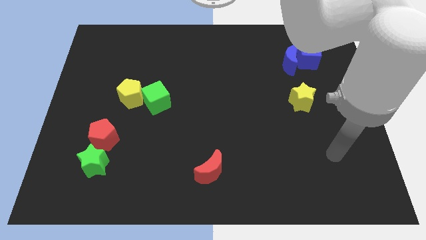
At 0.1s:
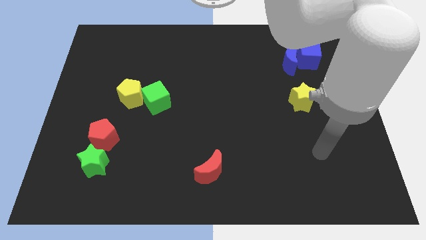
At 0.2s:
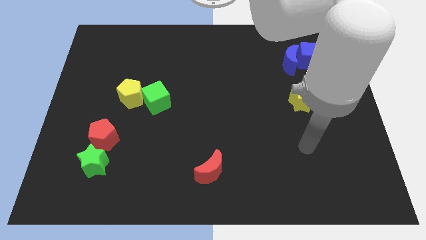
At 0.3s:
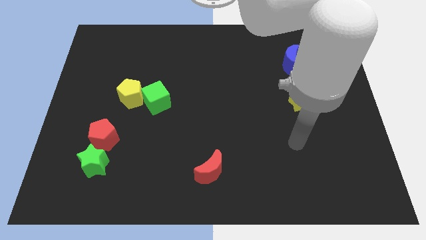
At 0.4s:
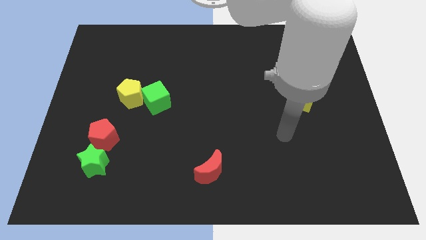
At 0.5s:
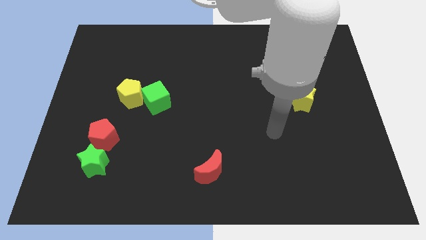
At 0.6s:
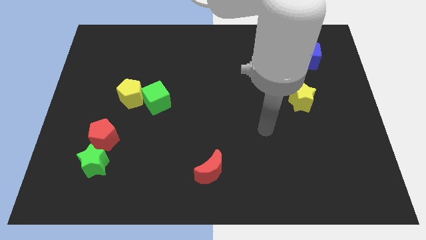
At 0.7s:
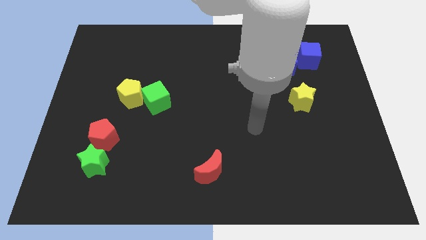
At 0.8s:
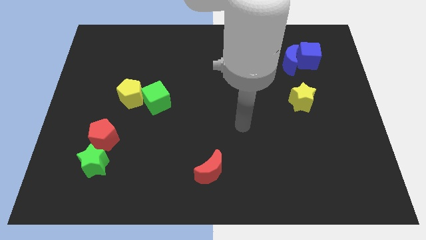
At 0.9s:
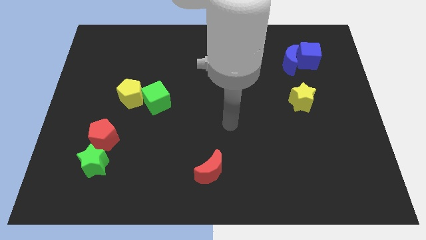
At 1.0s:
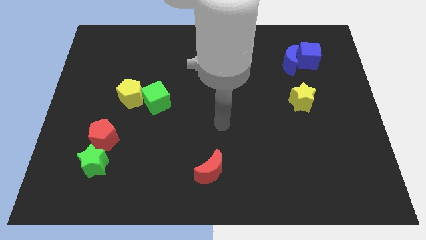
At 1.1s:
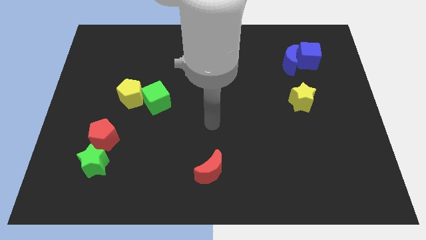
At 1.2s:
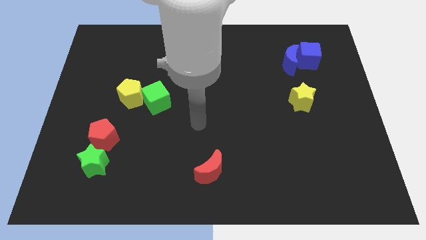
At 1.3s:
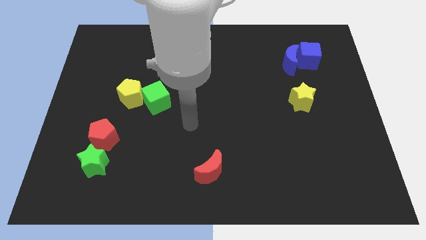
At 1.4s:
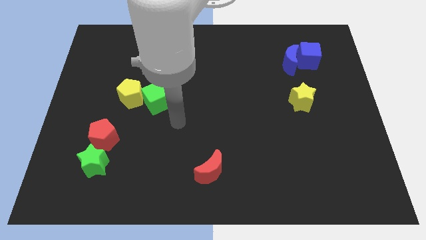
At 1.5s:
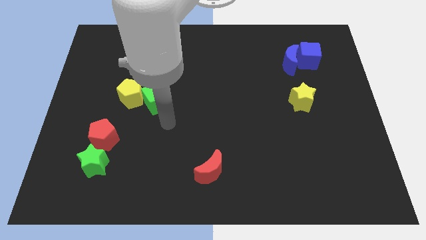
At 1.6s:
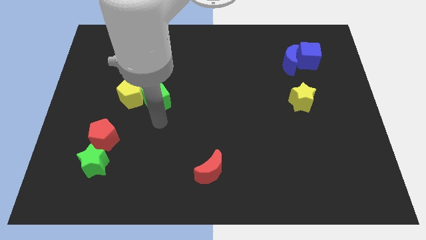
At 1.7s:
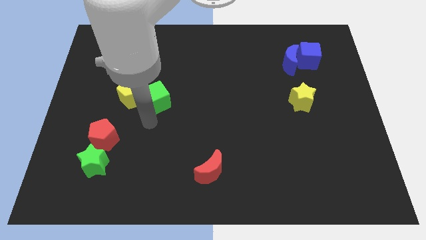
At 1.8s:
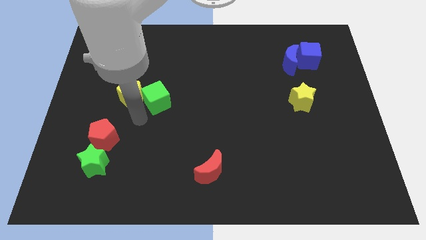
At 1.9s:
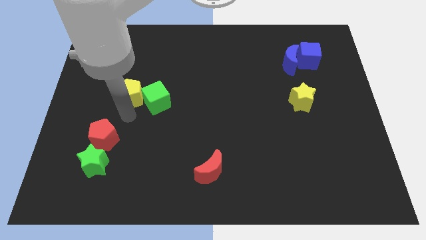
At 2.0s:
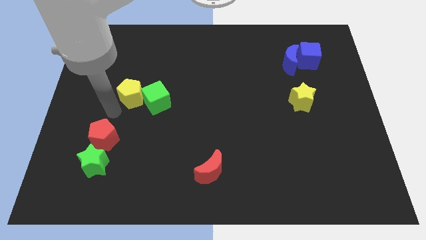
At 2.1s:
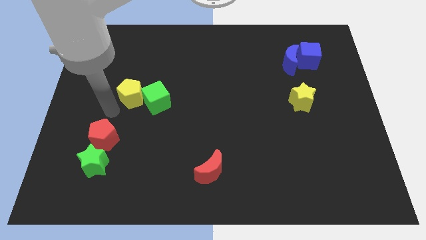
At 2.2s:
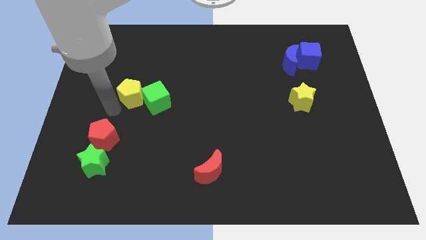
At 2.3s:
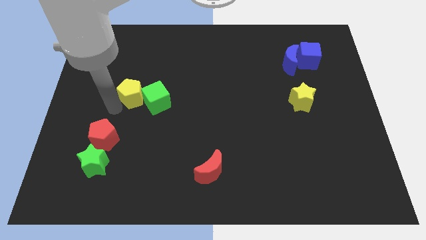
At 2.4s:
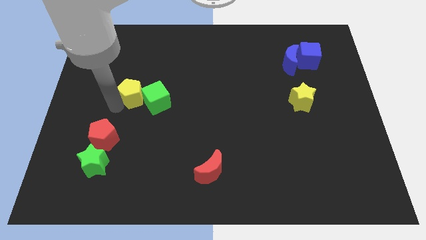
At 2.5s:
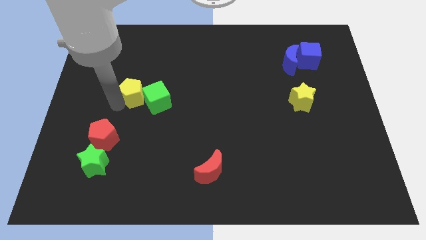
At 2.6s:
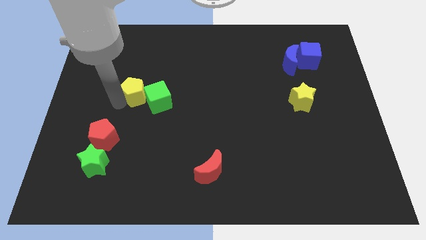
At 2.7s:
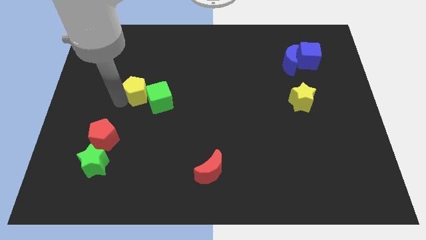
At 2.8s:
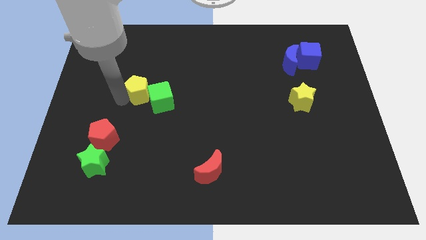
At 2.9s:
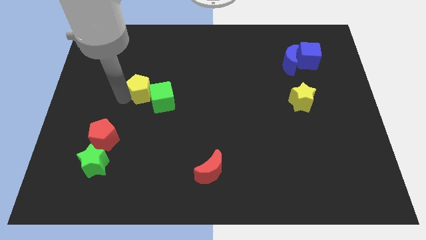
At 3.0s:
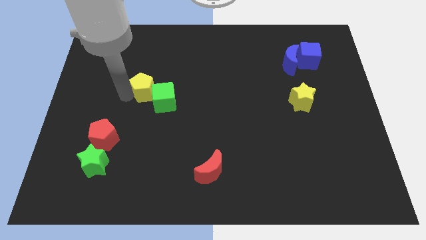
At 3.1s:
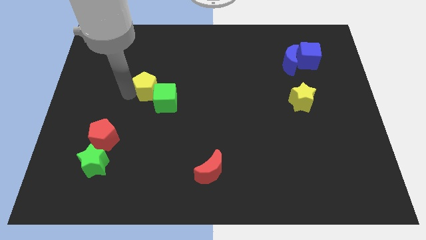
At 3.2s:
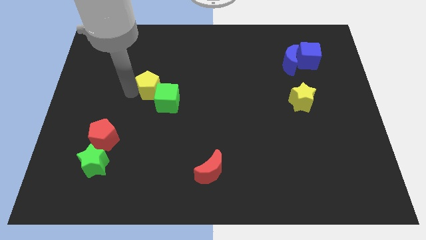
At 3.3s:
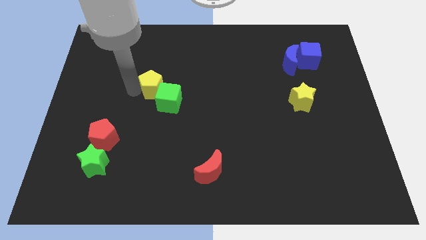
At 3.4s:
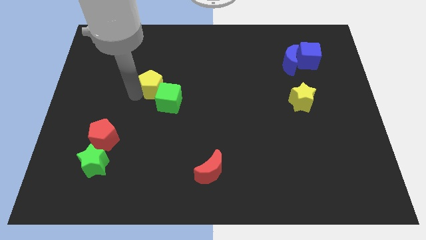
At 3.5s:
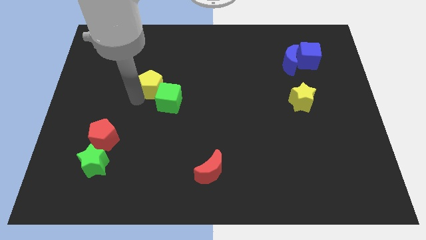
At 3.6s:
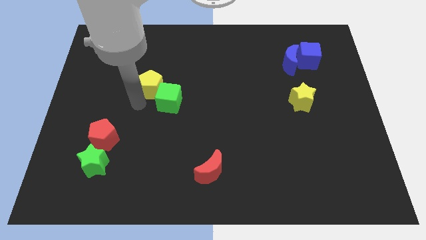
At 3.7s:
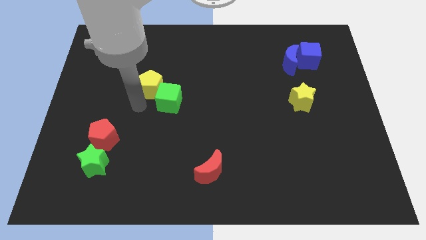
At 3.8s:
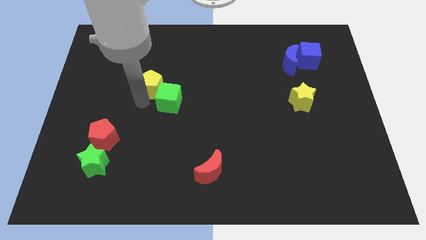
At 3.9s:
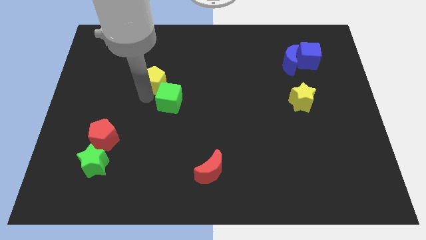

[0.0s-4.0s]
push the yellow pentagon a little diagonally up and to the right

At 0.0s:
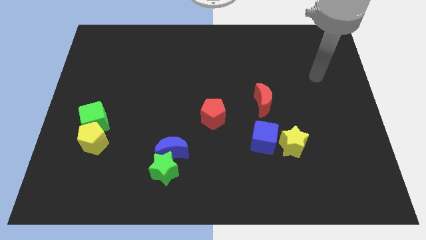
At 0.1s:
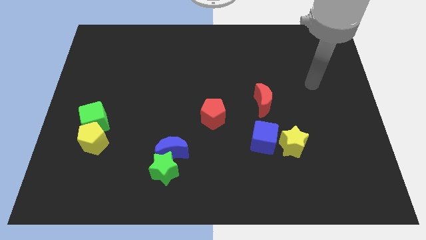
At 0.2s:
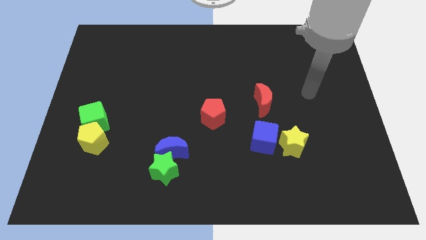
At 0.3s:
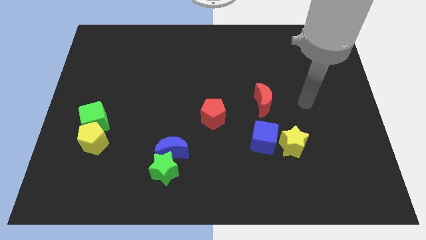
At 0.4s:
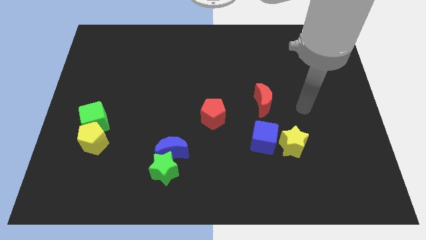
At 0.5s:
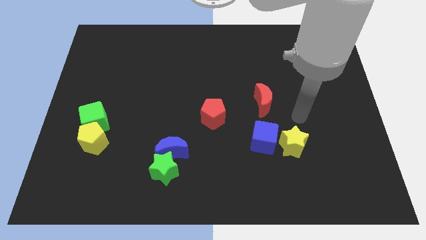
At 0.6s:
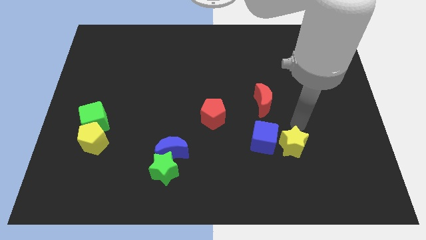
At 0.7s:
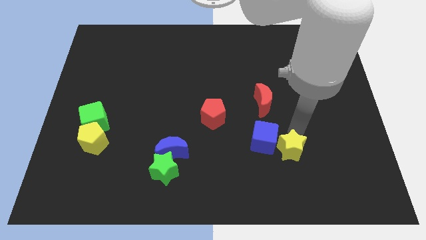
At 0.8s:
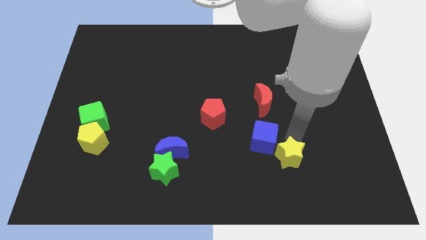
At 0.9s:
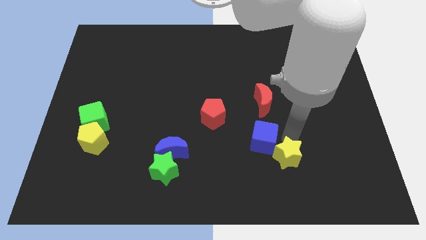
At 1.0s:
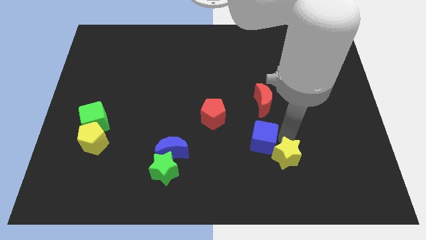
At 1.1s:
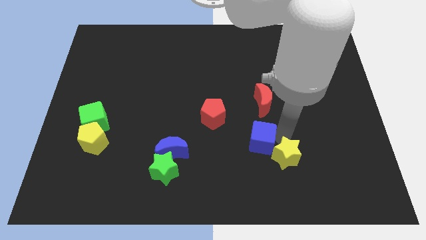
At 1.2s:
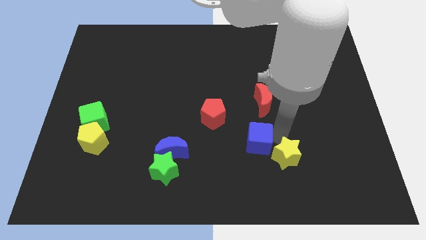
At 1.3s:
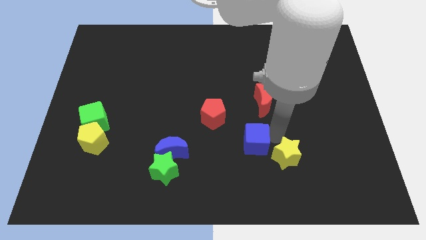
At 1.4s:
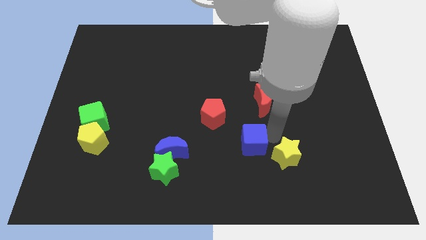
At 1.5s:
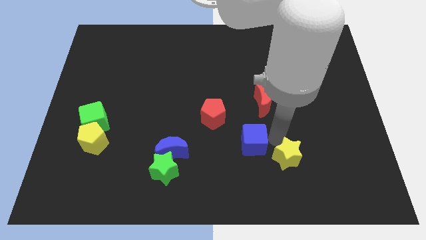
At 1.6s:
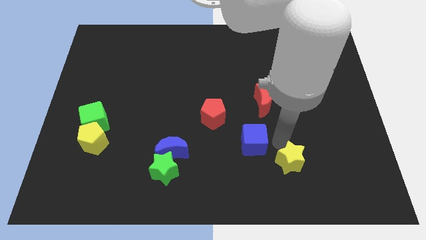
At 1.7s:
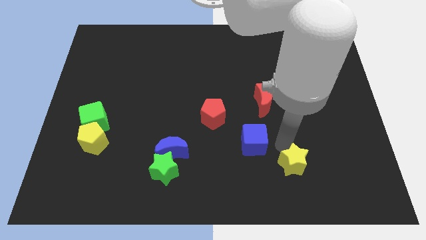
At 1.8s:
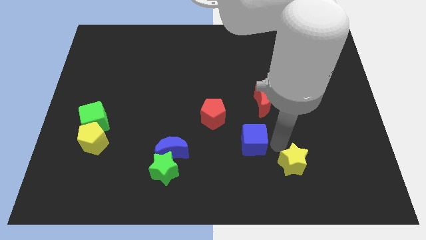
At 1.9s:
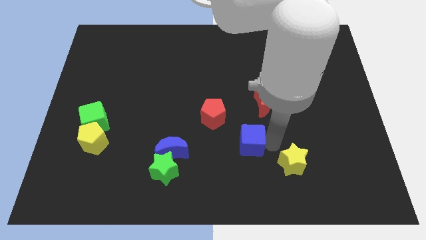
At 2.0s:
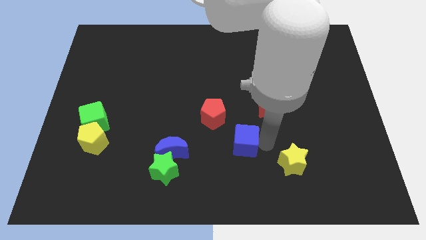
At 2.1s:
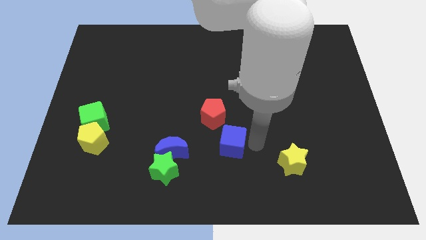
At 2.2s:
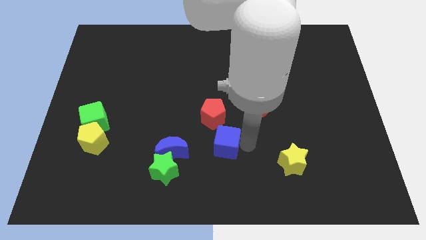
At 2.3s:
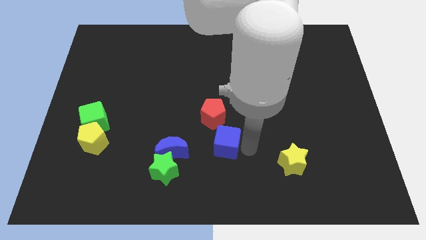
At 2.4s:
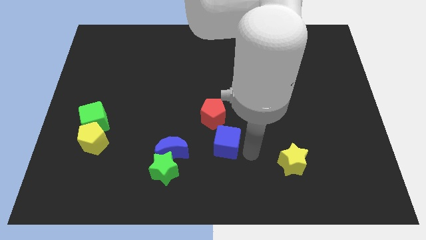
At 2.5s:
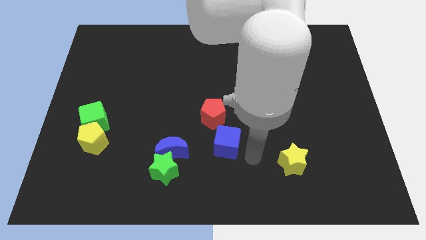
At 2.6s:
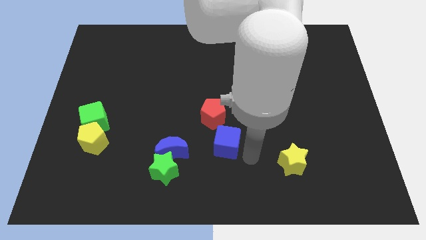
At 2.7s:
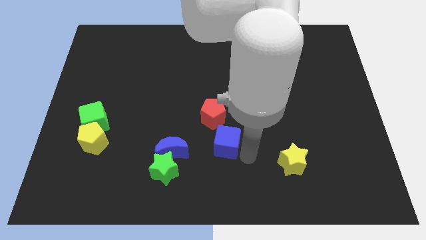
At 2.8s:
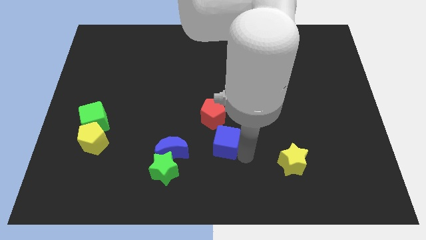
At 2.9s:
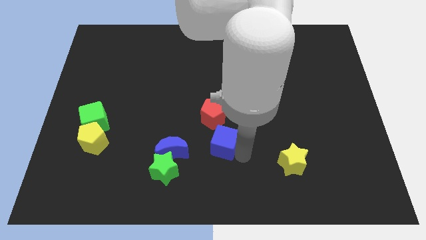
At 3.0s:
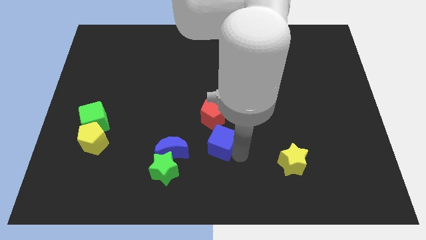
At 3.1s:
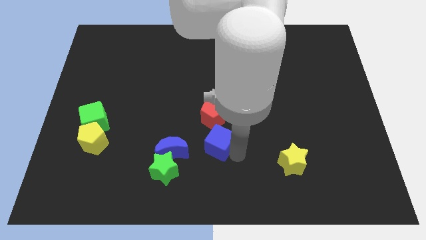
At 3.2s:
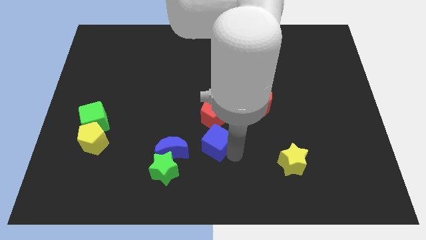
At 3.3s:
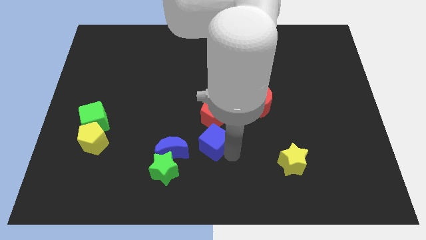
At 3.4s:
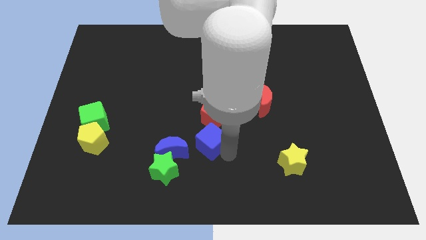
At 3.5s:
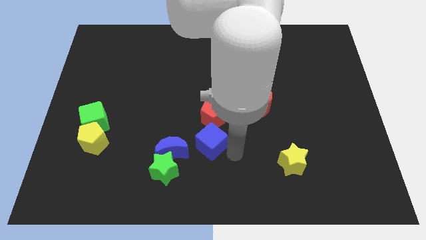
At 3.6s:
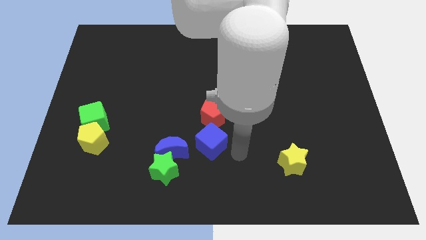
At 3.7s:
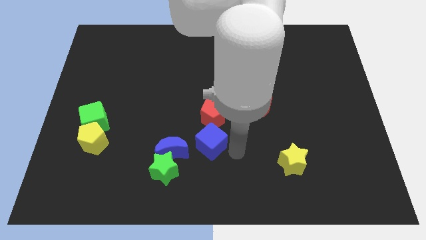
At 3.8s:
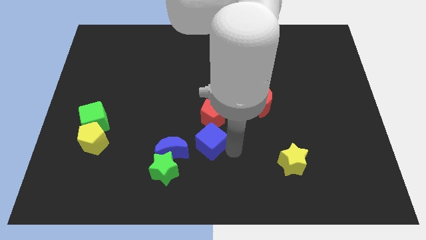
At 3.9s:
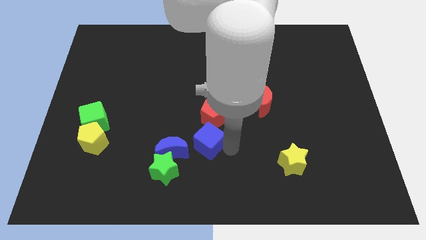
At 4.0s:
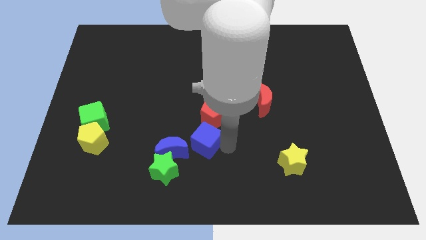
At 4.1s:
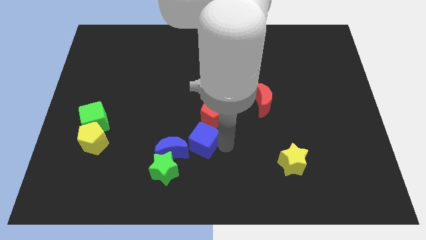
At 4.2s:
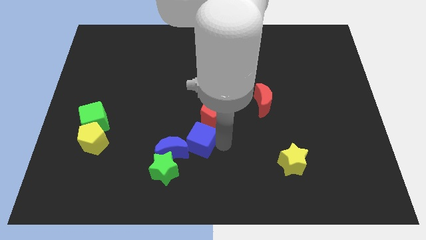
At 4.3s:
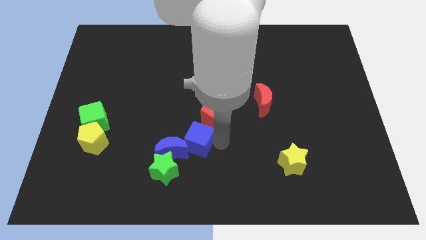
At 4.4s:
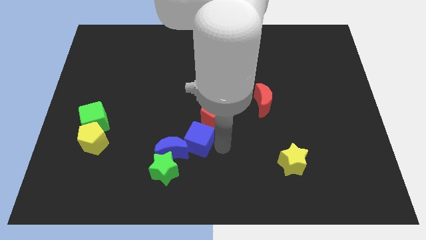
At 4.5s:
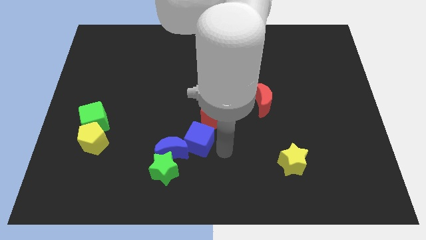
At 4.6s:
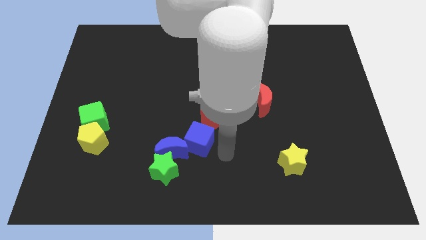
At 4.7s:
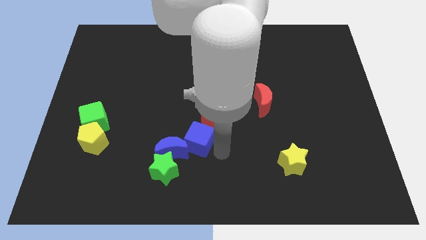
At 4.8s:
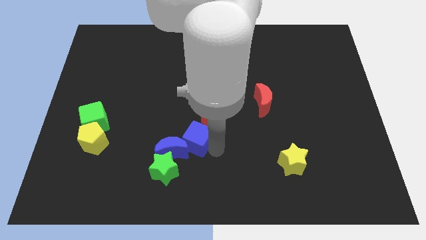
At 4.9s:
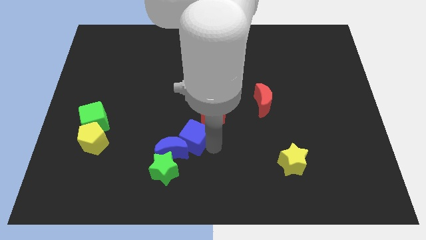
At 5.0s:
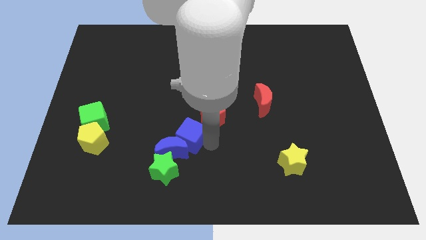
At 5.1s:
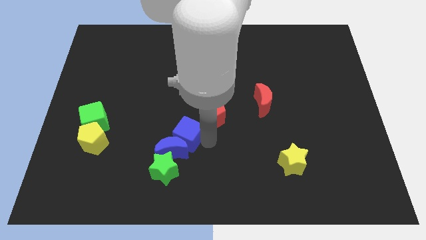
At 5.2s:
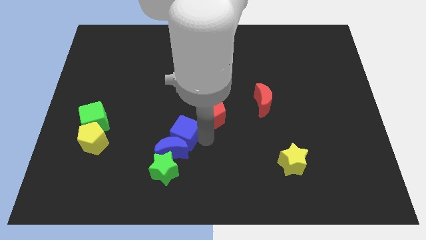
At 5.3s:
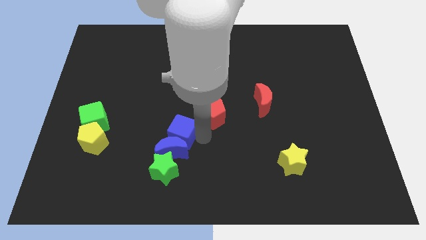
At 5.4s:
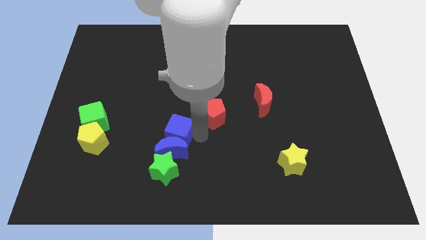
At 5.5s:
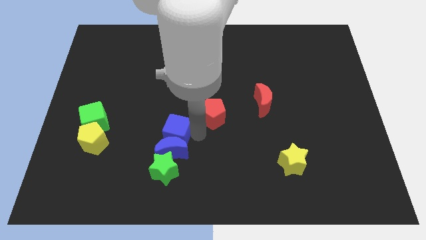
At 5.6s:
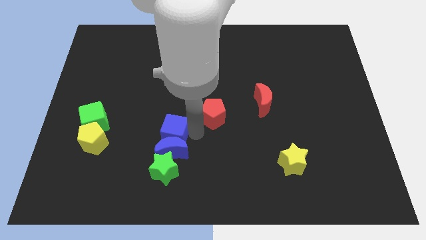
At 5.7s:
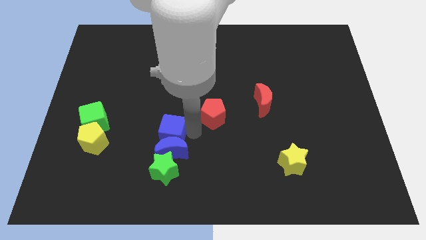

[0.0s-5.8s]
slide the blue cube left
